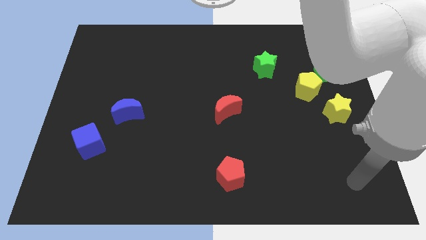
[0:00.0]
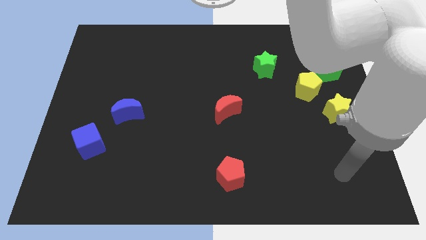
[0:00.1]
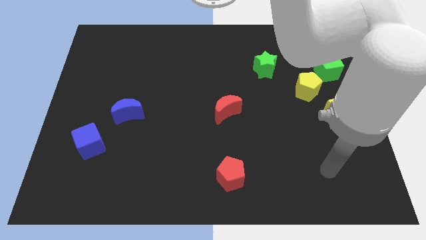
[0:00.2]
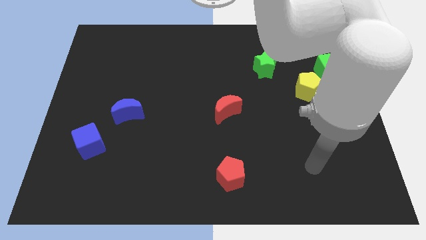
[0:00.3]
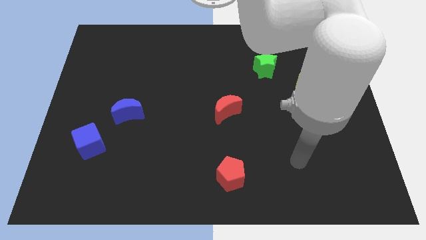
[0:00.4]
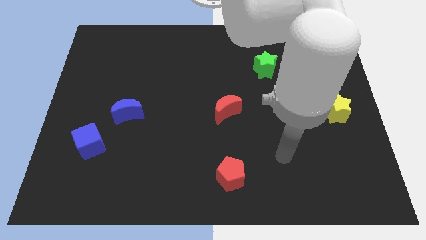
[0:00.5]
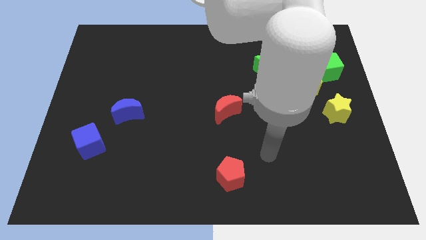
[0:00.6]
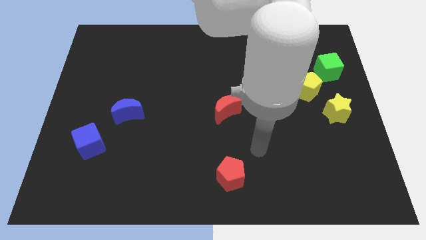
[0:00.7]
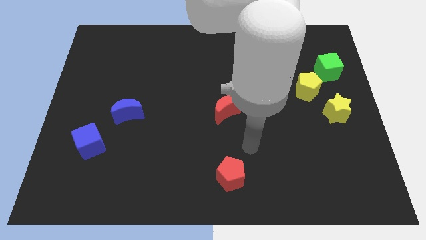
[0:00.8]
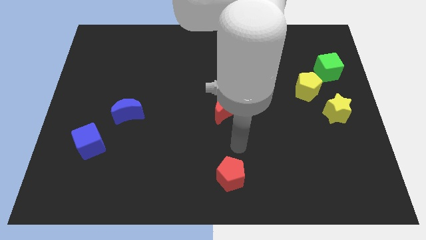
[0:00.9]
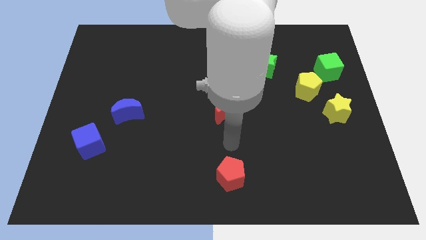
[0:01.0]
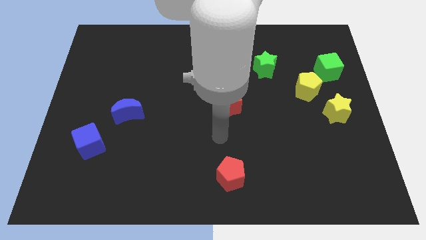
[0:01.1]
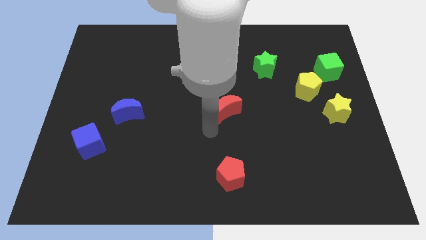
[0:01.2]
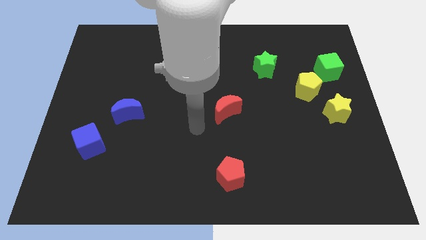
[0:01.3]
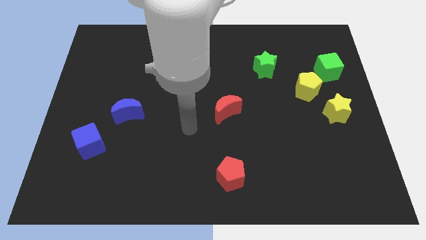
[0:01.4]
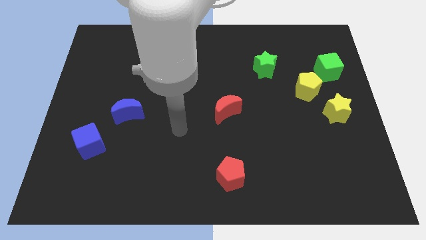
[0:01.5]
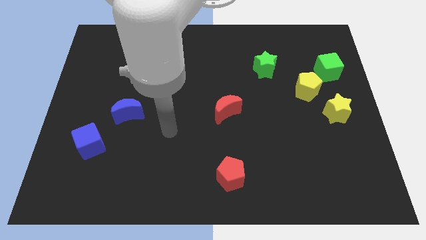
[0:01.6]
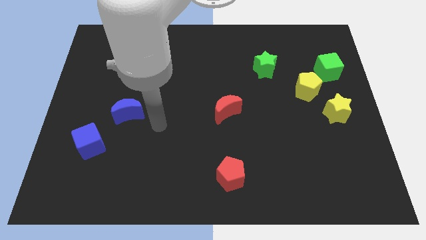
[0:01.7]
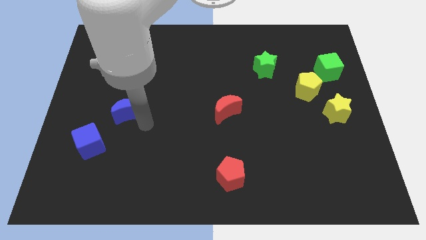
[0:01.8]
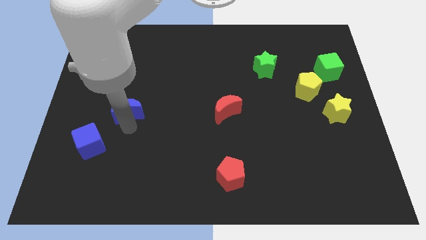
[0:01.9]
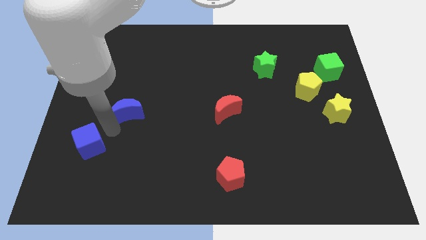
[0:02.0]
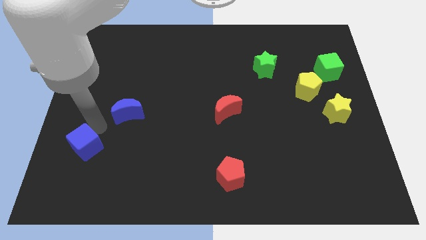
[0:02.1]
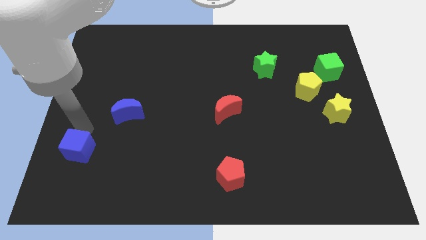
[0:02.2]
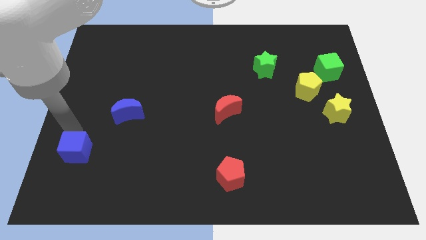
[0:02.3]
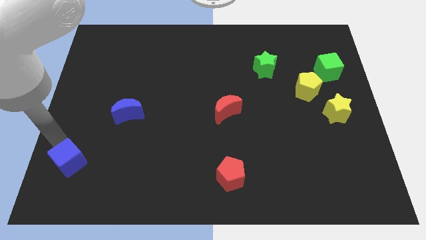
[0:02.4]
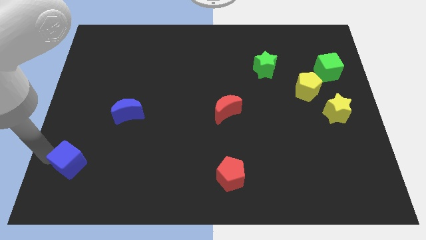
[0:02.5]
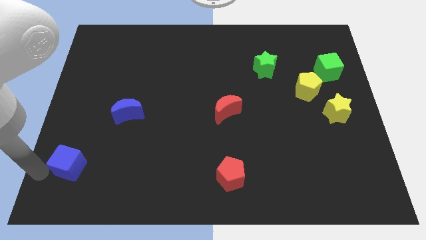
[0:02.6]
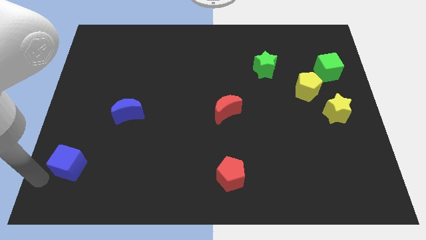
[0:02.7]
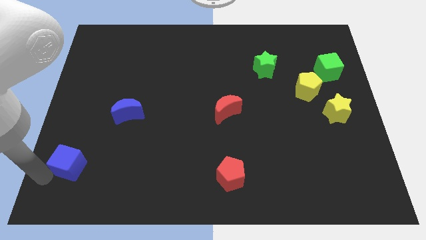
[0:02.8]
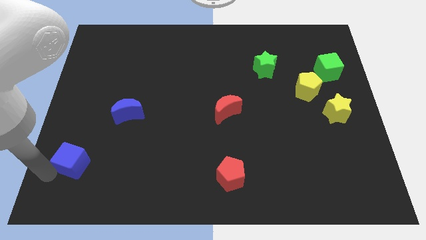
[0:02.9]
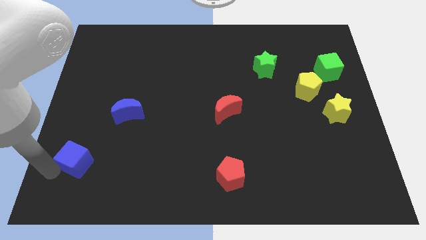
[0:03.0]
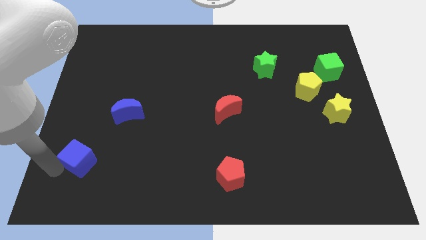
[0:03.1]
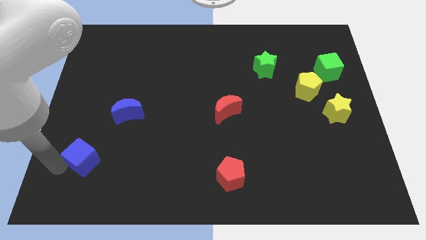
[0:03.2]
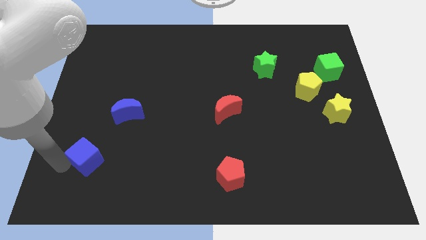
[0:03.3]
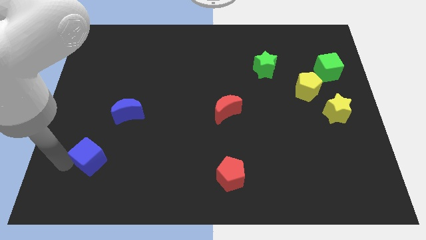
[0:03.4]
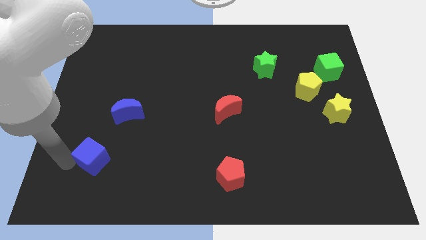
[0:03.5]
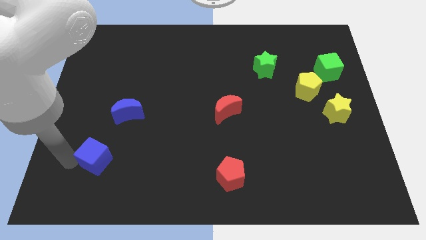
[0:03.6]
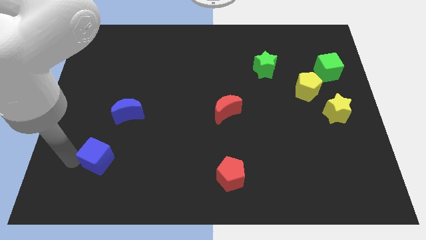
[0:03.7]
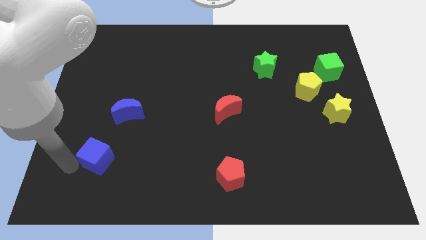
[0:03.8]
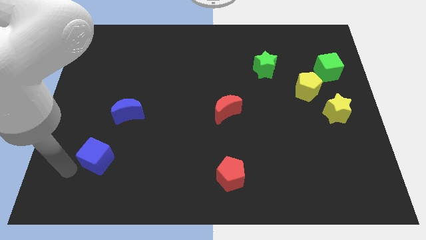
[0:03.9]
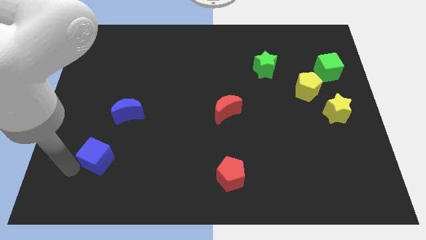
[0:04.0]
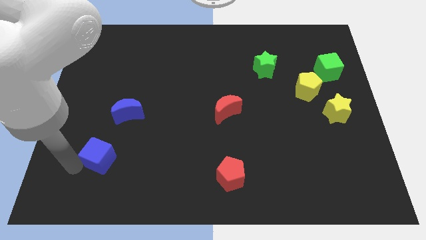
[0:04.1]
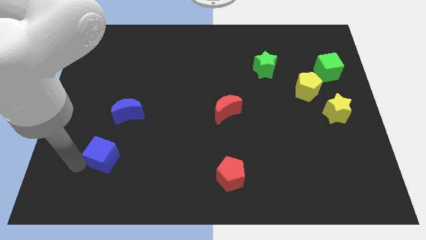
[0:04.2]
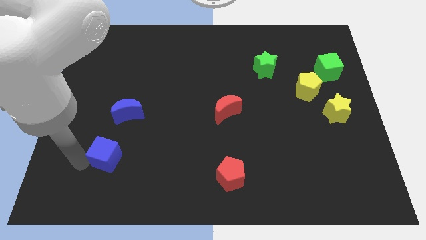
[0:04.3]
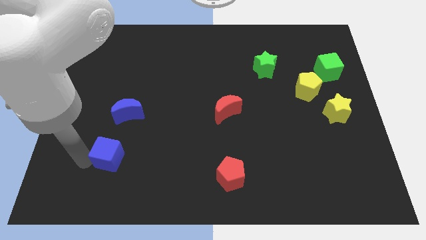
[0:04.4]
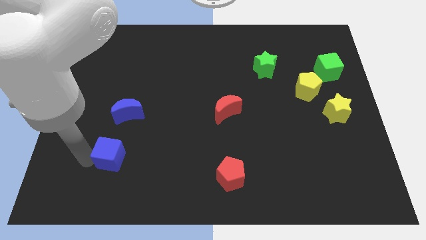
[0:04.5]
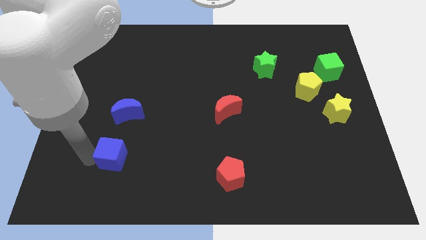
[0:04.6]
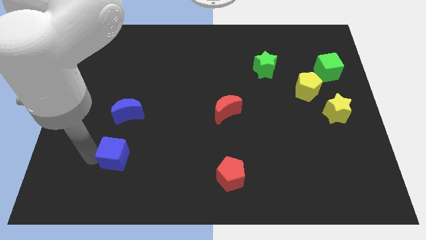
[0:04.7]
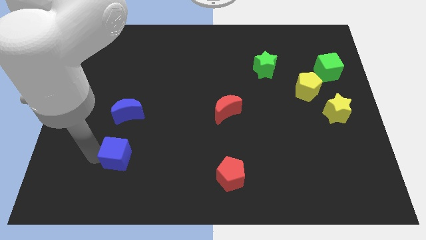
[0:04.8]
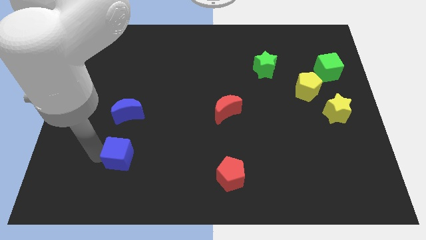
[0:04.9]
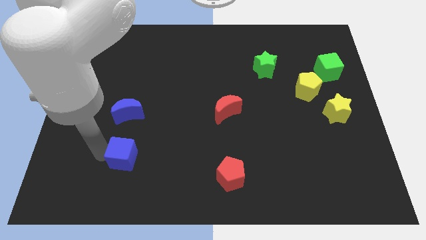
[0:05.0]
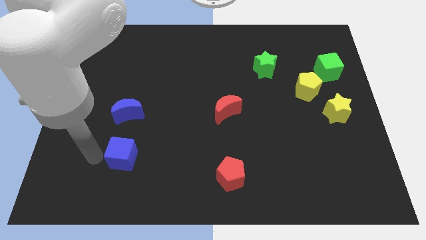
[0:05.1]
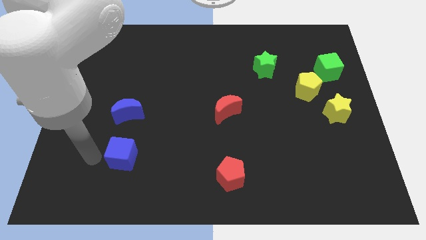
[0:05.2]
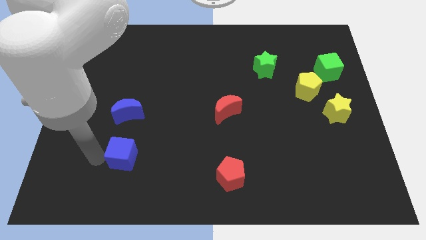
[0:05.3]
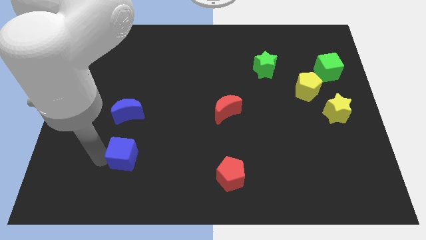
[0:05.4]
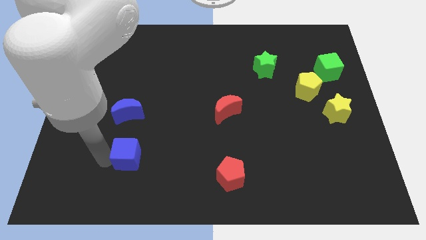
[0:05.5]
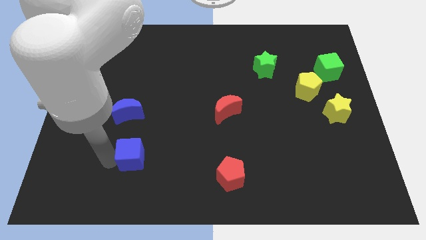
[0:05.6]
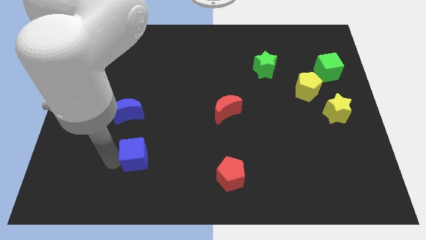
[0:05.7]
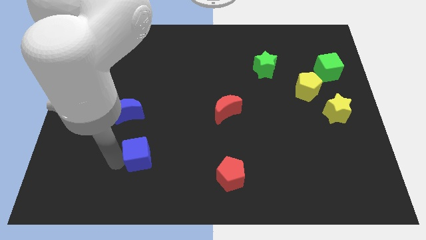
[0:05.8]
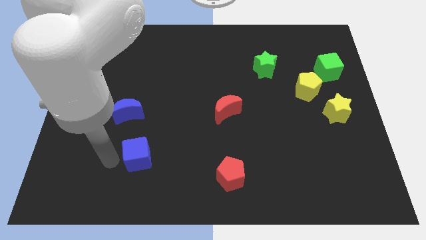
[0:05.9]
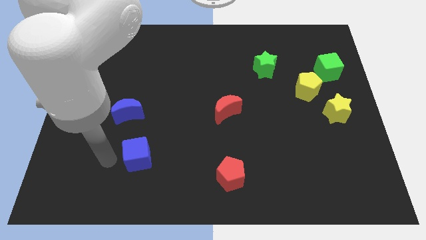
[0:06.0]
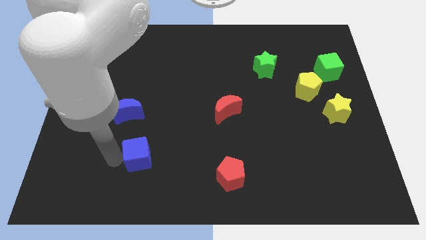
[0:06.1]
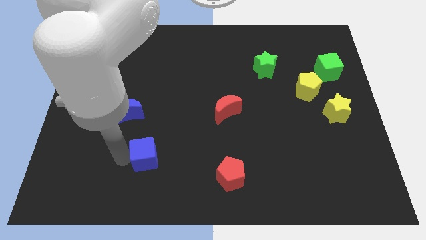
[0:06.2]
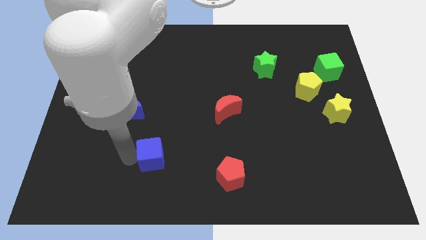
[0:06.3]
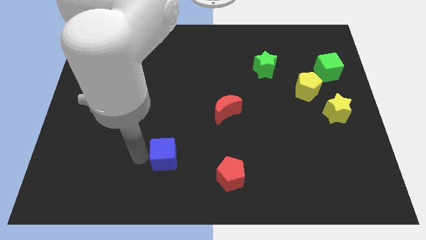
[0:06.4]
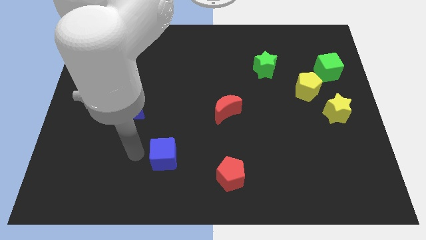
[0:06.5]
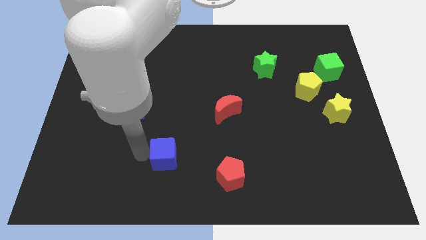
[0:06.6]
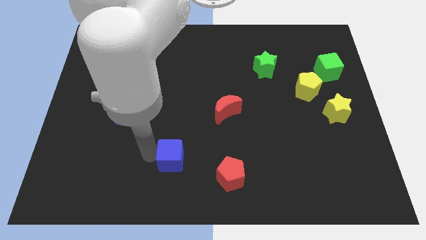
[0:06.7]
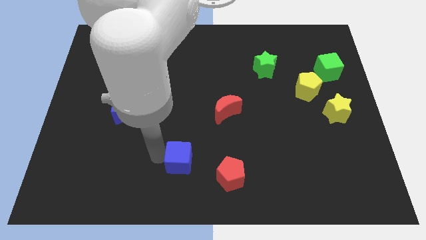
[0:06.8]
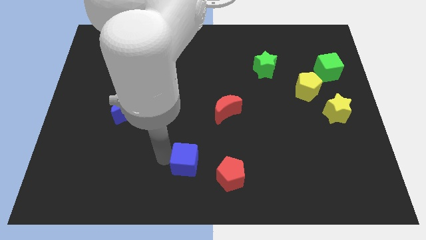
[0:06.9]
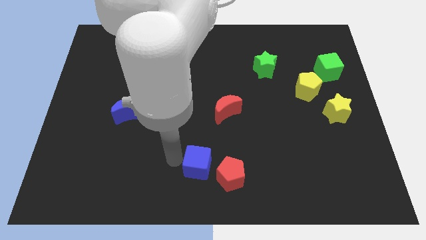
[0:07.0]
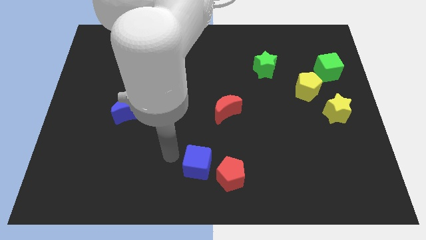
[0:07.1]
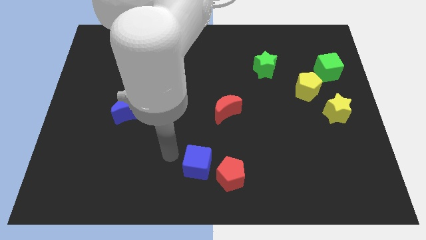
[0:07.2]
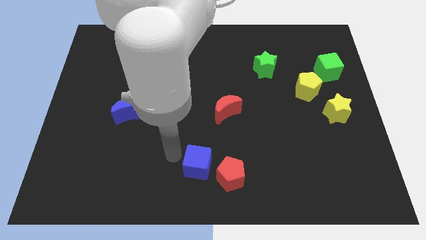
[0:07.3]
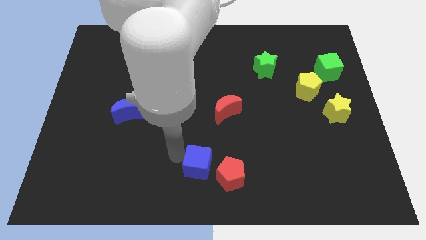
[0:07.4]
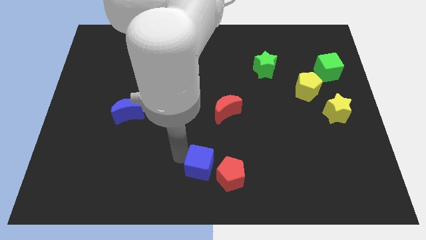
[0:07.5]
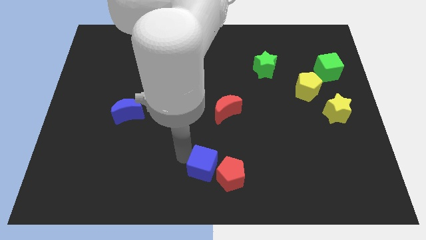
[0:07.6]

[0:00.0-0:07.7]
move the blue cube towards the red pentagon
